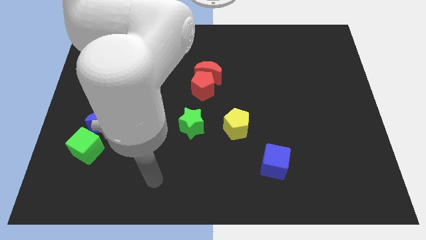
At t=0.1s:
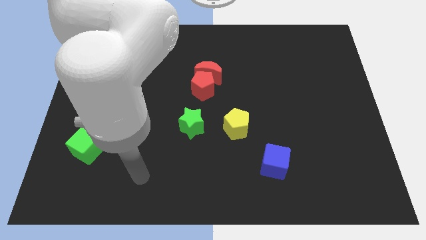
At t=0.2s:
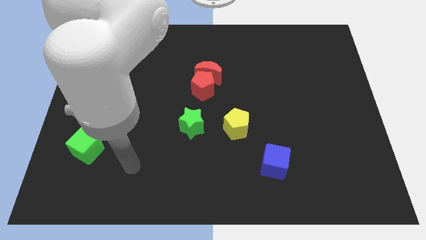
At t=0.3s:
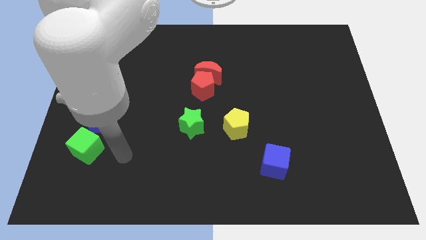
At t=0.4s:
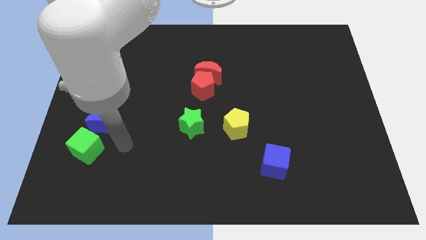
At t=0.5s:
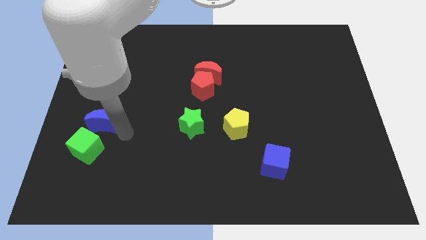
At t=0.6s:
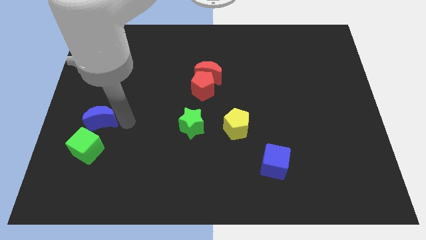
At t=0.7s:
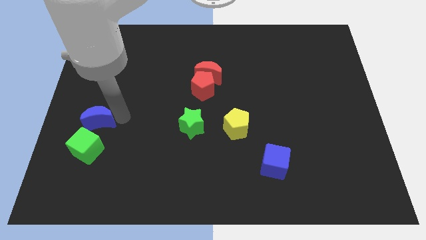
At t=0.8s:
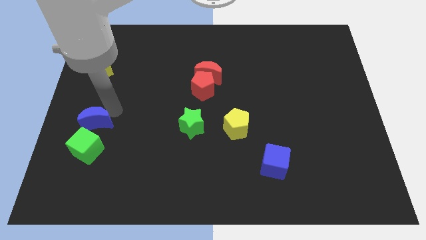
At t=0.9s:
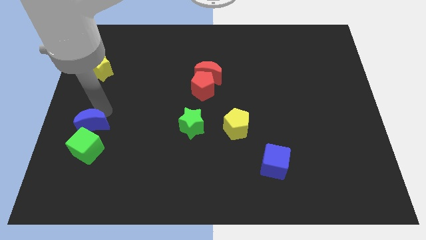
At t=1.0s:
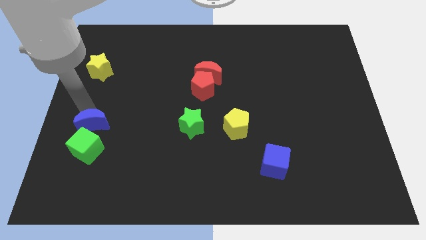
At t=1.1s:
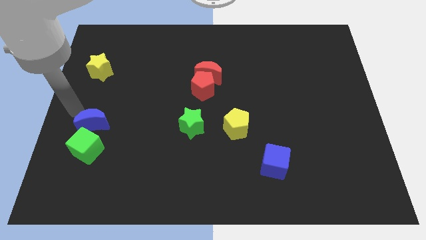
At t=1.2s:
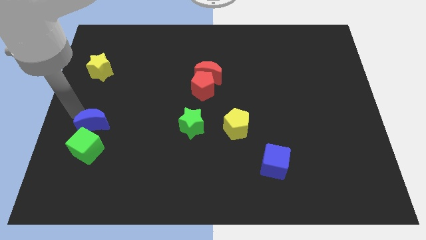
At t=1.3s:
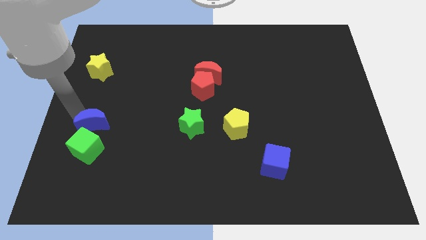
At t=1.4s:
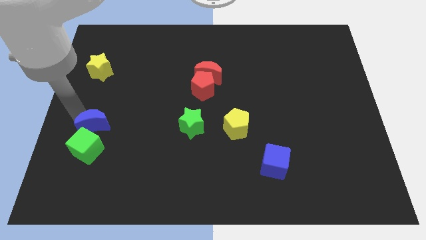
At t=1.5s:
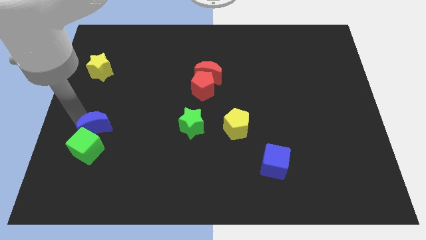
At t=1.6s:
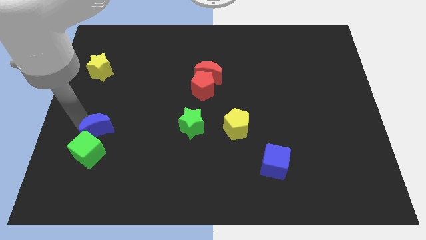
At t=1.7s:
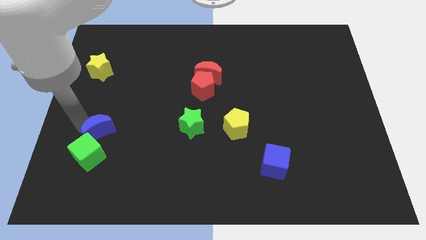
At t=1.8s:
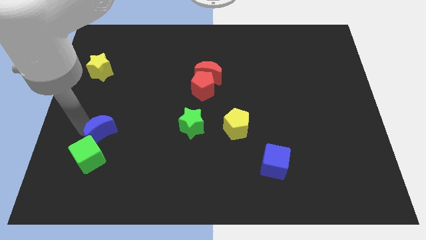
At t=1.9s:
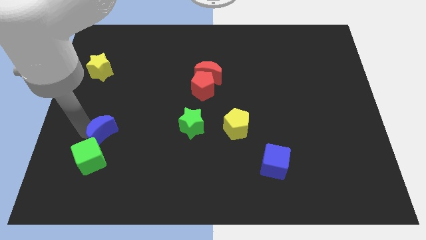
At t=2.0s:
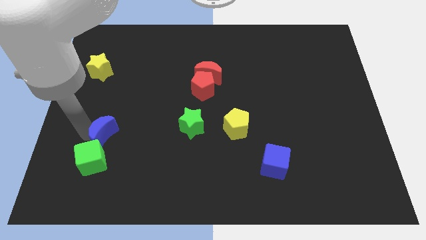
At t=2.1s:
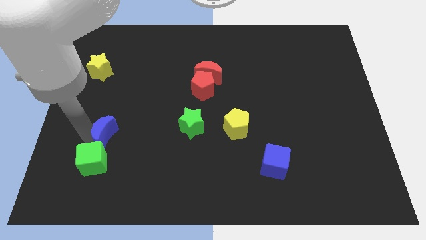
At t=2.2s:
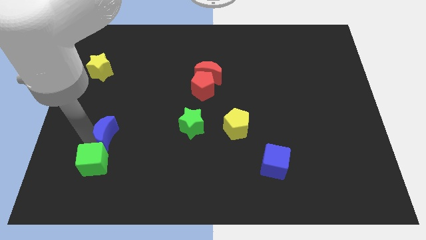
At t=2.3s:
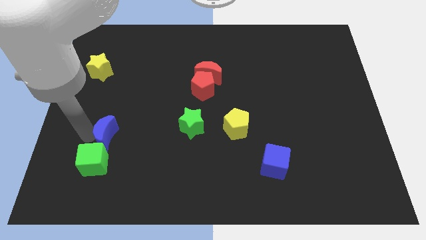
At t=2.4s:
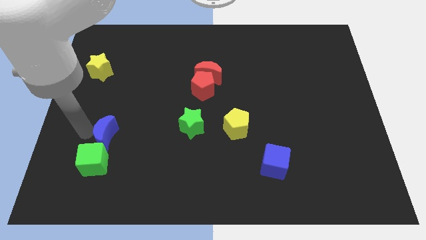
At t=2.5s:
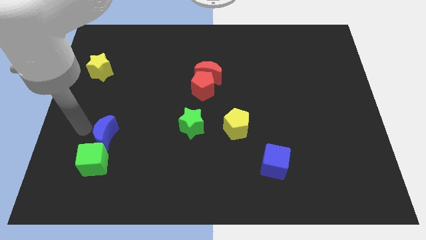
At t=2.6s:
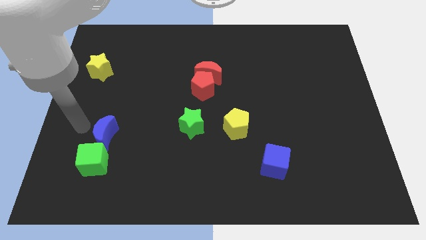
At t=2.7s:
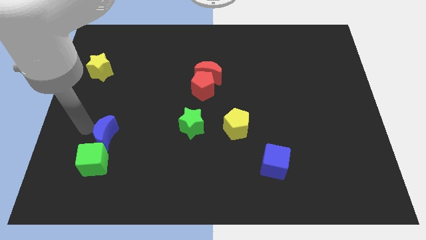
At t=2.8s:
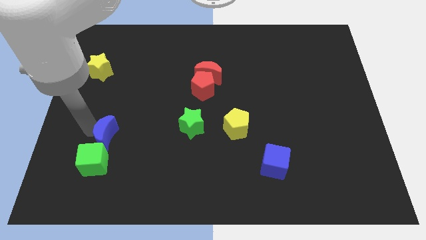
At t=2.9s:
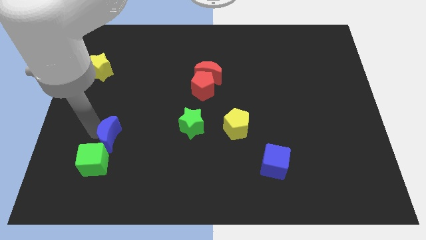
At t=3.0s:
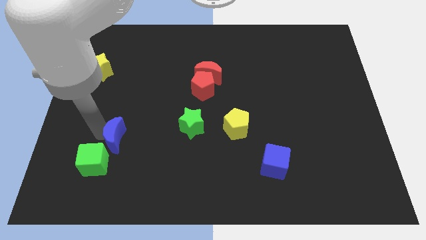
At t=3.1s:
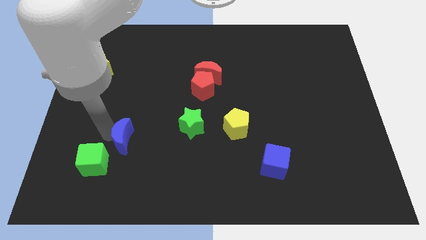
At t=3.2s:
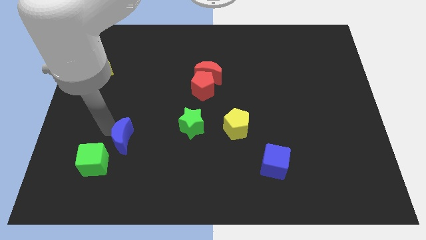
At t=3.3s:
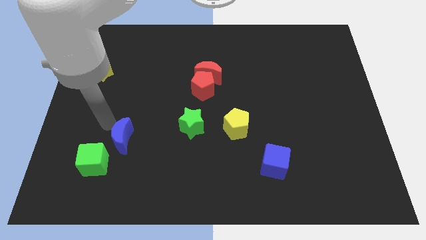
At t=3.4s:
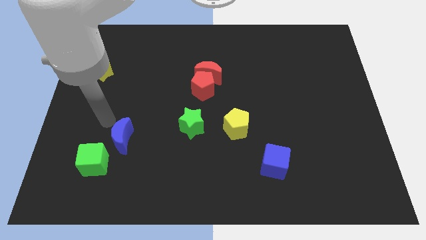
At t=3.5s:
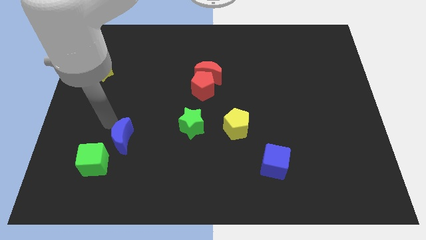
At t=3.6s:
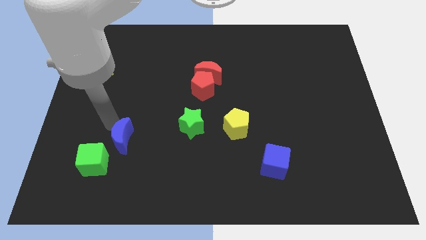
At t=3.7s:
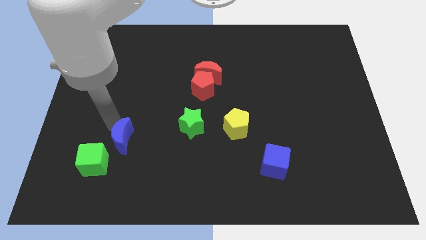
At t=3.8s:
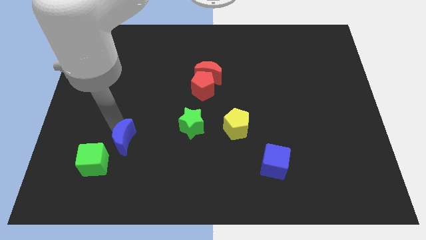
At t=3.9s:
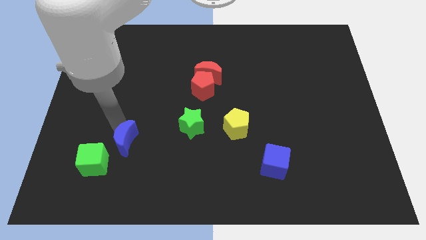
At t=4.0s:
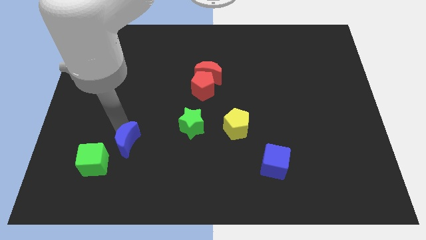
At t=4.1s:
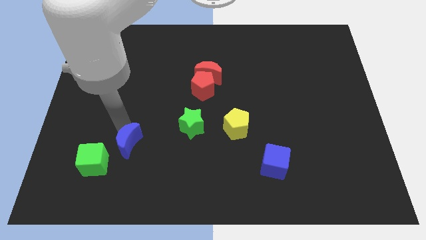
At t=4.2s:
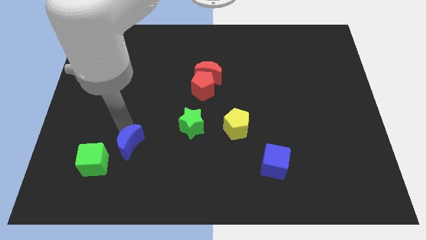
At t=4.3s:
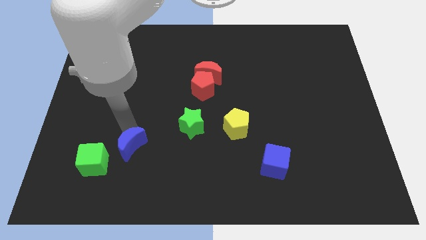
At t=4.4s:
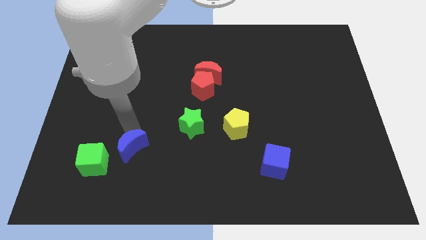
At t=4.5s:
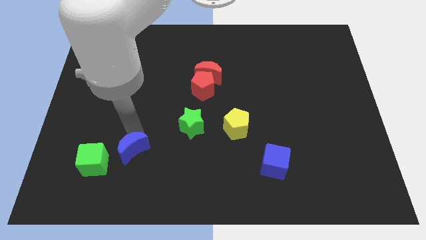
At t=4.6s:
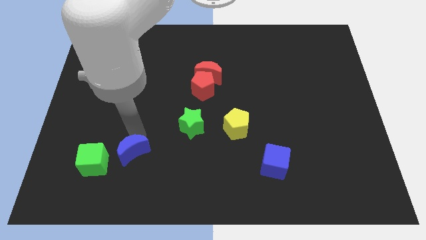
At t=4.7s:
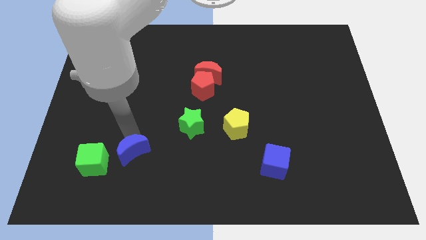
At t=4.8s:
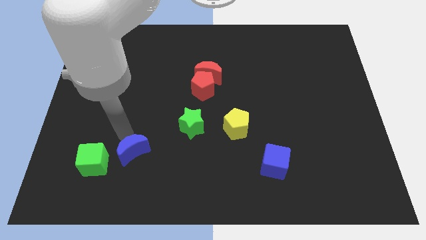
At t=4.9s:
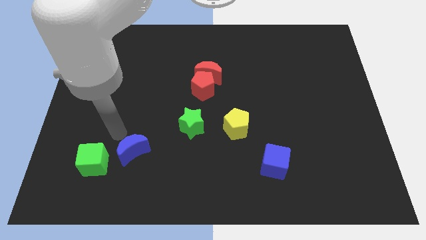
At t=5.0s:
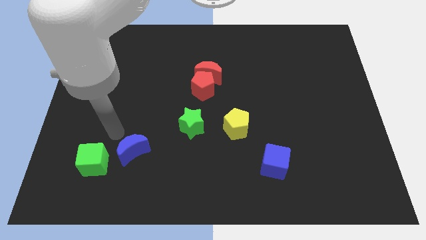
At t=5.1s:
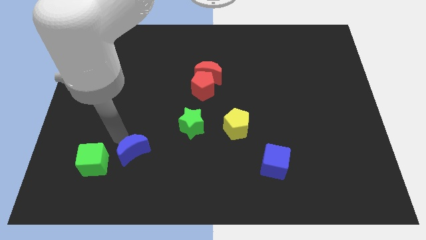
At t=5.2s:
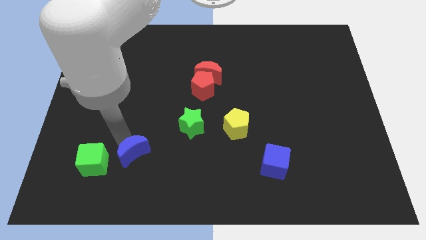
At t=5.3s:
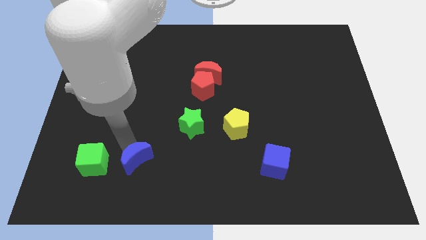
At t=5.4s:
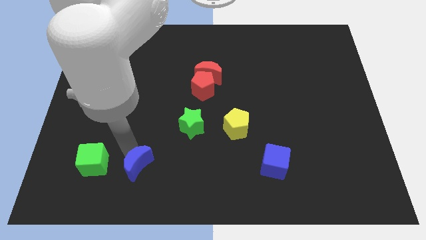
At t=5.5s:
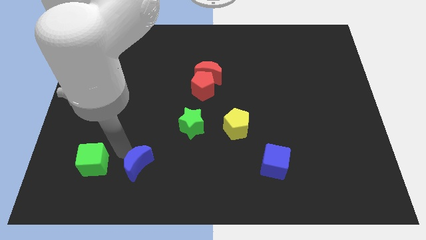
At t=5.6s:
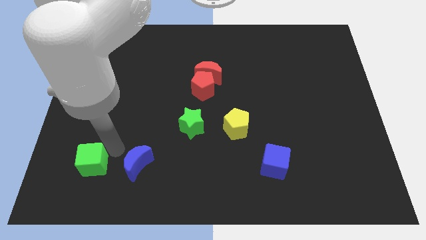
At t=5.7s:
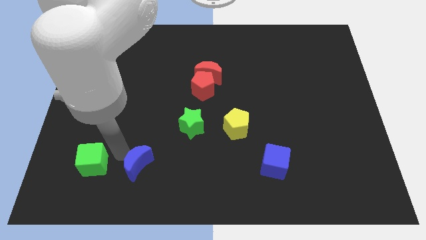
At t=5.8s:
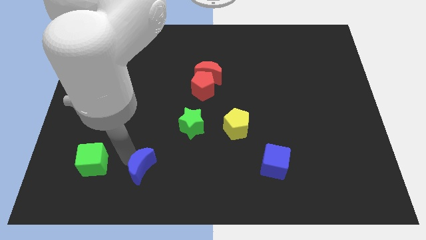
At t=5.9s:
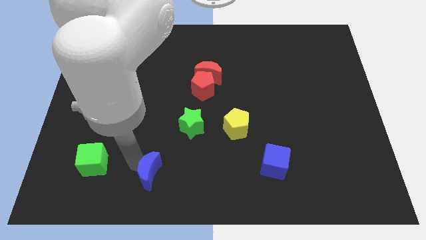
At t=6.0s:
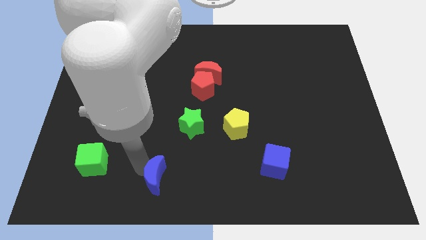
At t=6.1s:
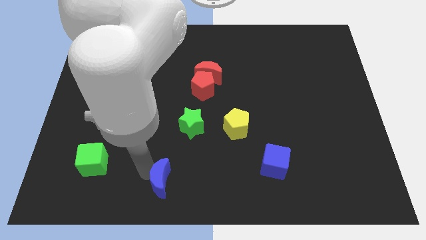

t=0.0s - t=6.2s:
slide the blue moon to the bottom side
